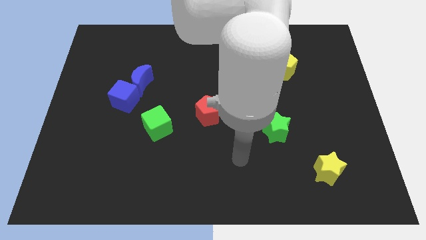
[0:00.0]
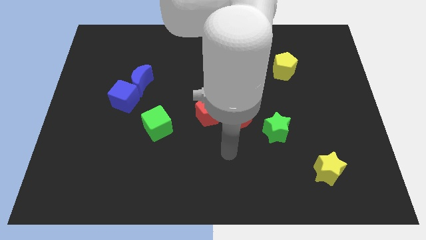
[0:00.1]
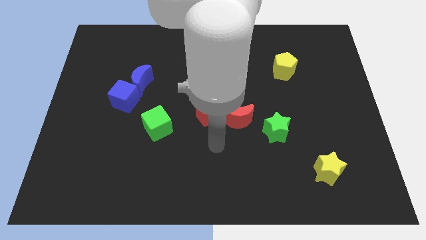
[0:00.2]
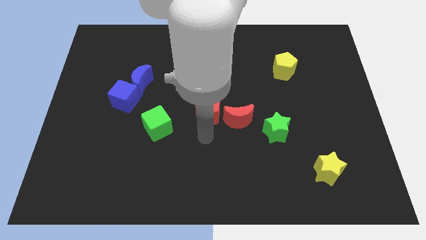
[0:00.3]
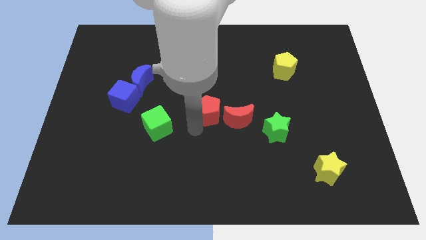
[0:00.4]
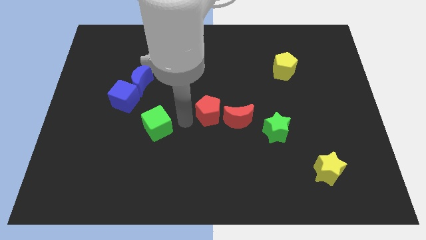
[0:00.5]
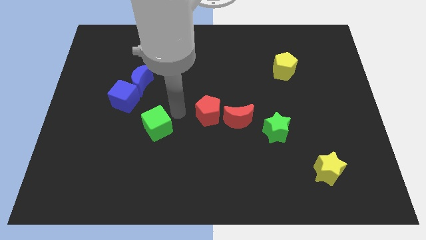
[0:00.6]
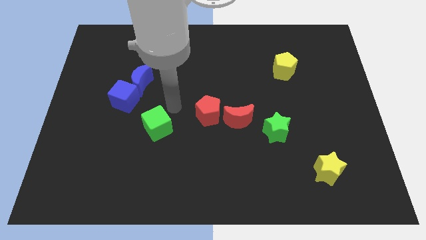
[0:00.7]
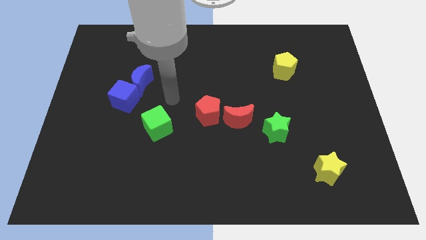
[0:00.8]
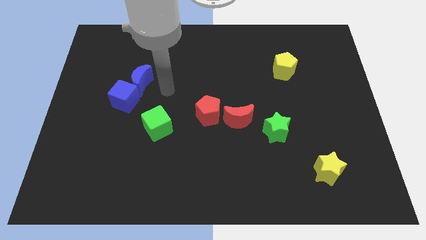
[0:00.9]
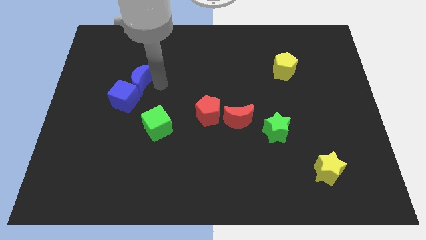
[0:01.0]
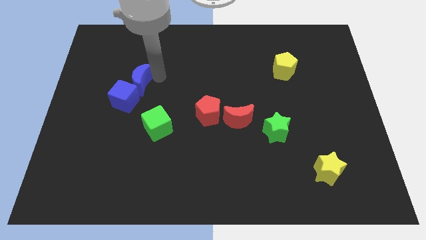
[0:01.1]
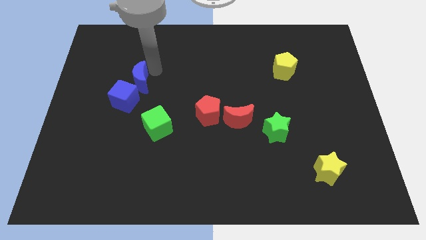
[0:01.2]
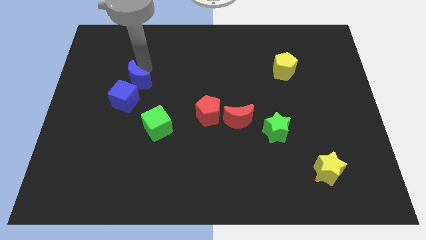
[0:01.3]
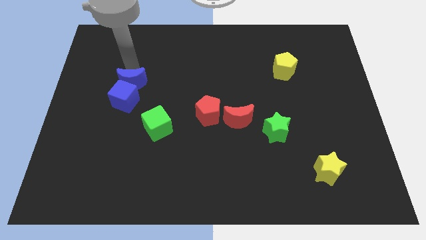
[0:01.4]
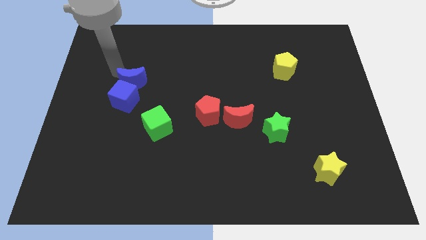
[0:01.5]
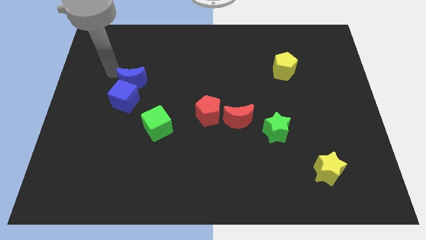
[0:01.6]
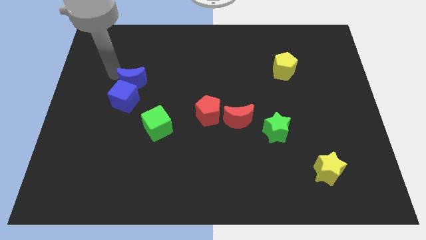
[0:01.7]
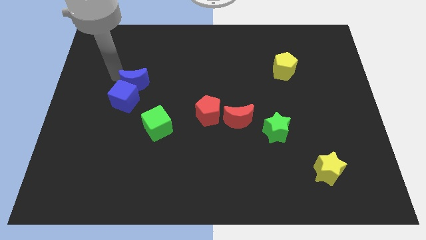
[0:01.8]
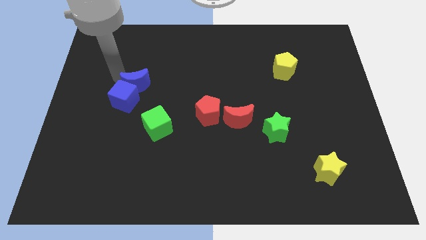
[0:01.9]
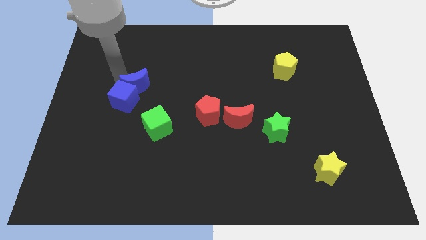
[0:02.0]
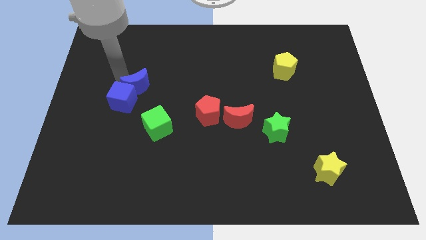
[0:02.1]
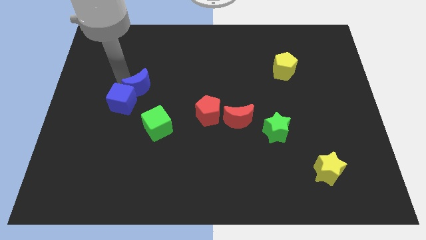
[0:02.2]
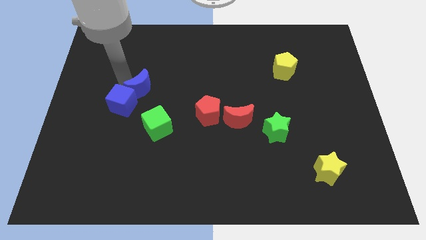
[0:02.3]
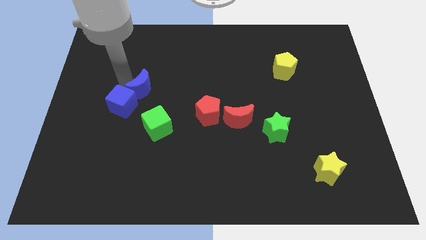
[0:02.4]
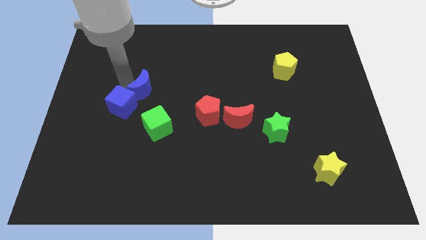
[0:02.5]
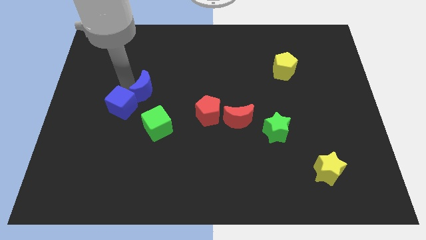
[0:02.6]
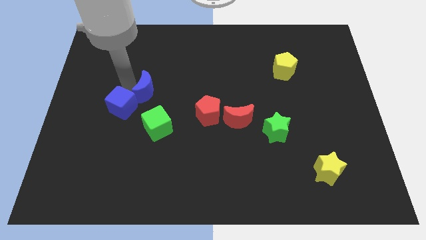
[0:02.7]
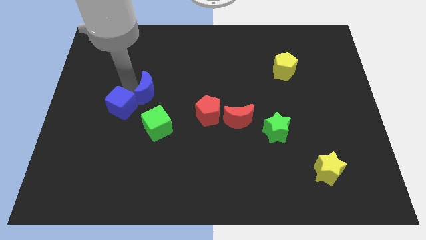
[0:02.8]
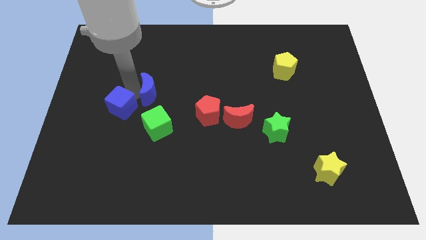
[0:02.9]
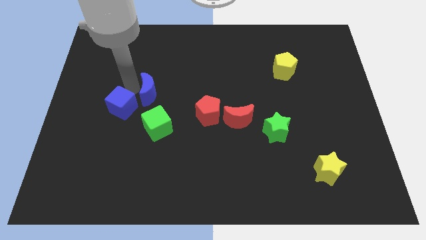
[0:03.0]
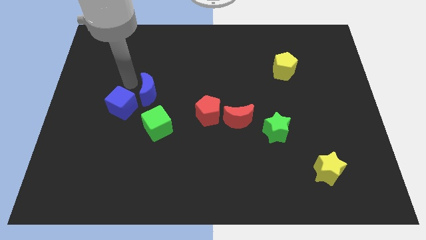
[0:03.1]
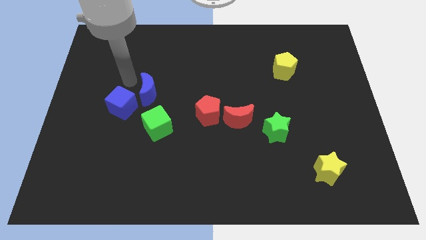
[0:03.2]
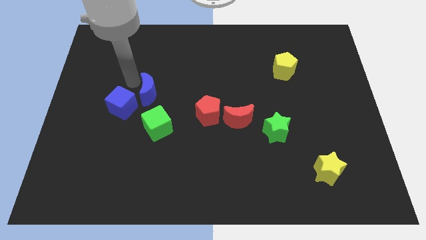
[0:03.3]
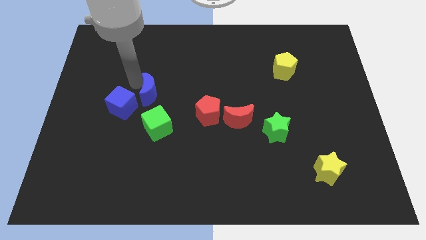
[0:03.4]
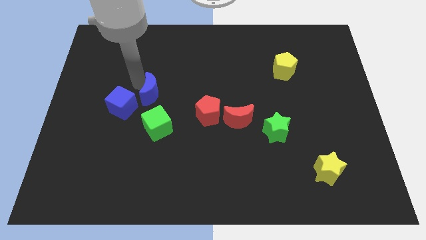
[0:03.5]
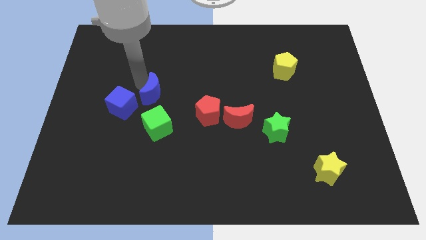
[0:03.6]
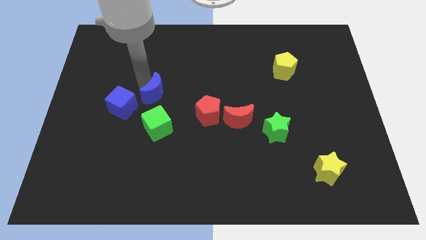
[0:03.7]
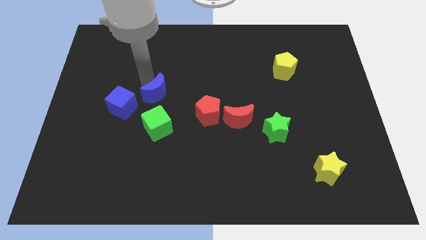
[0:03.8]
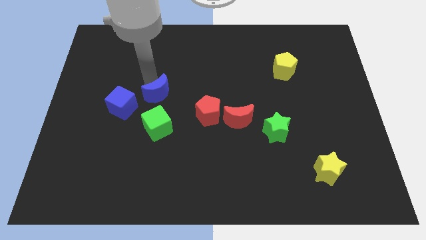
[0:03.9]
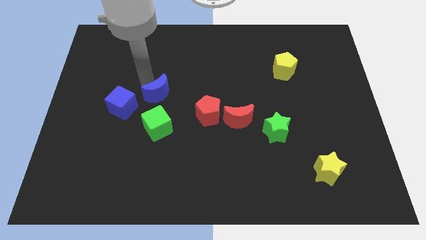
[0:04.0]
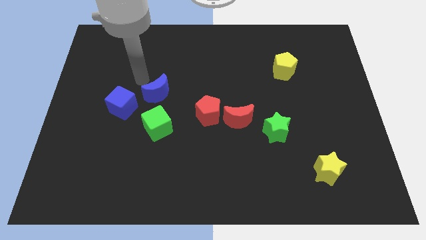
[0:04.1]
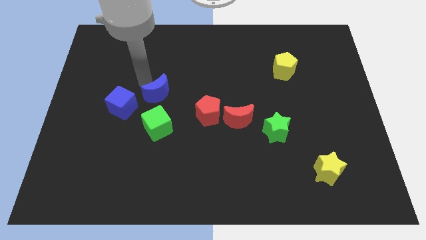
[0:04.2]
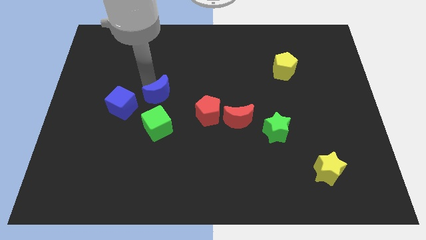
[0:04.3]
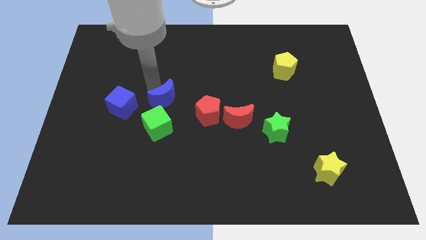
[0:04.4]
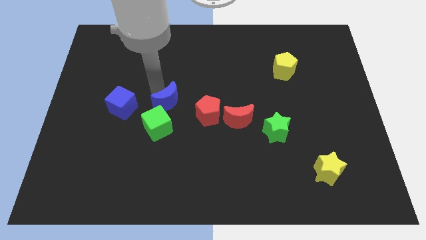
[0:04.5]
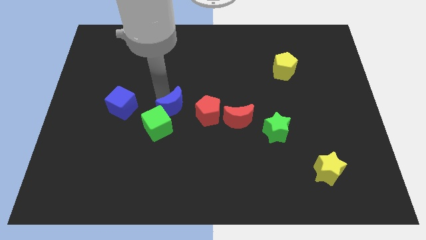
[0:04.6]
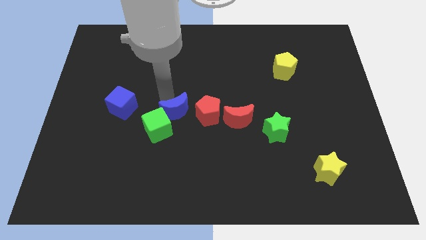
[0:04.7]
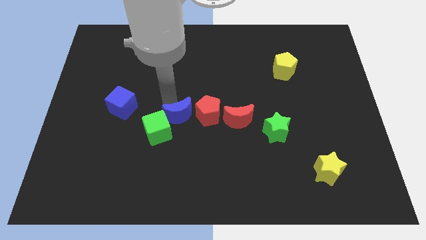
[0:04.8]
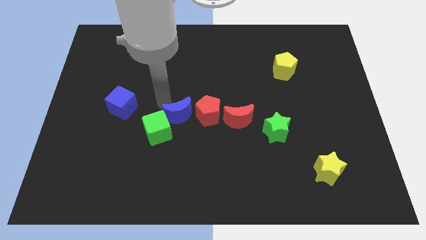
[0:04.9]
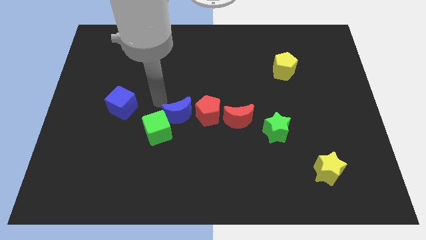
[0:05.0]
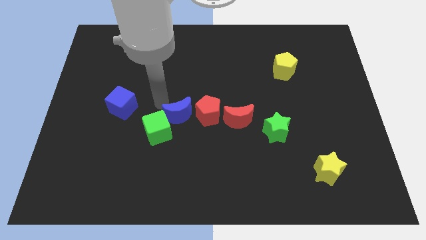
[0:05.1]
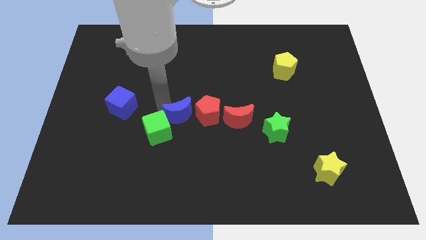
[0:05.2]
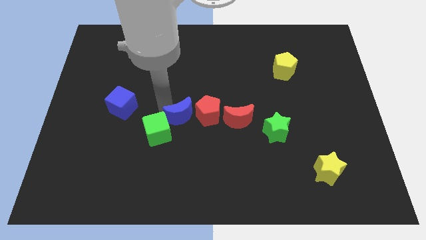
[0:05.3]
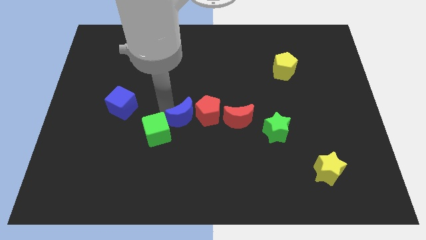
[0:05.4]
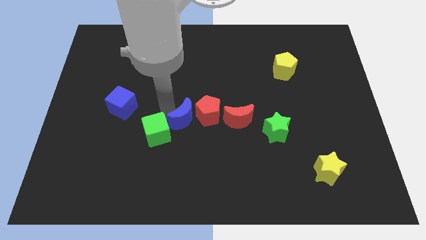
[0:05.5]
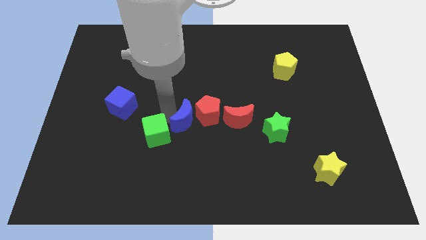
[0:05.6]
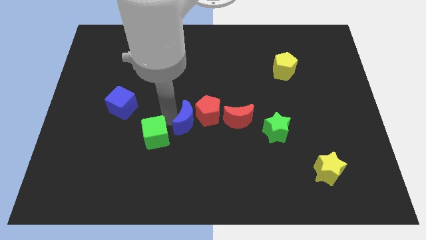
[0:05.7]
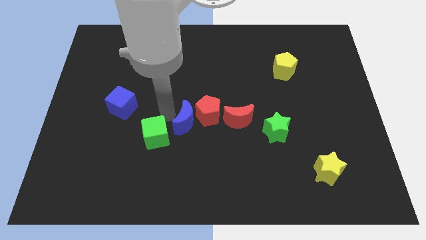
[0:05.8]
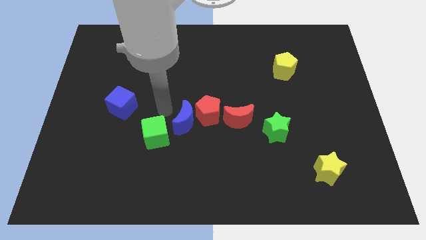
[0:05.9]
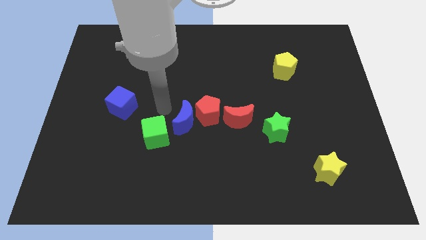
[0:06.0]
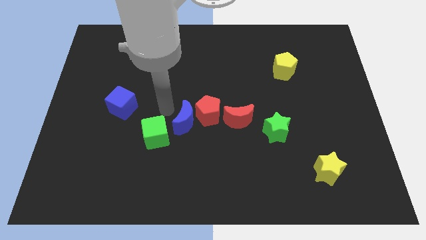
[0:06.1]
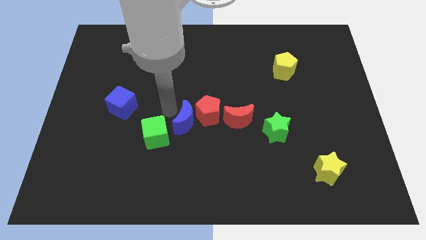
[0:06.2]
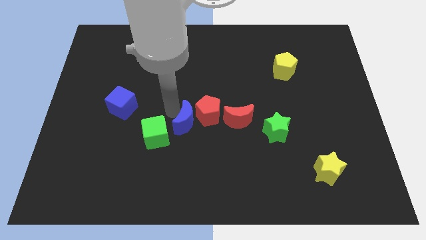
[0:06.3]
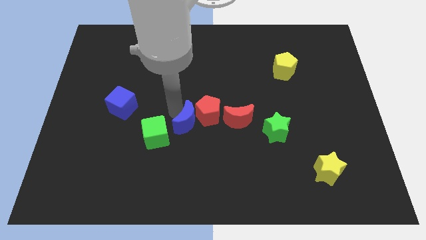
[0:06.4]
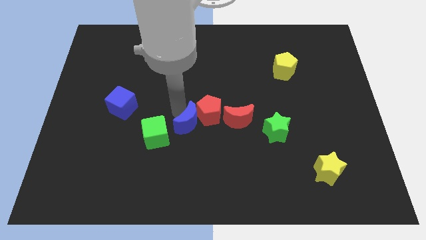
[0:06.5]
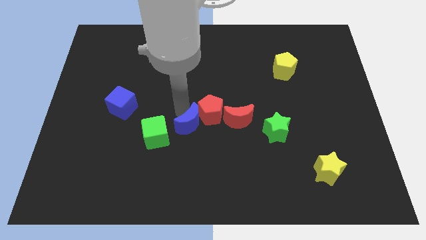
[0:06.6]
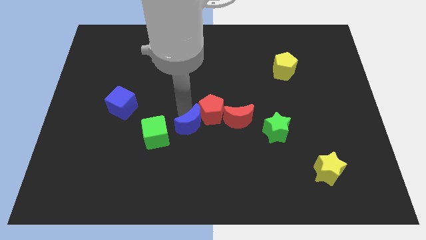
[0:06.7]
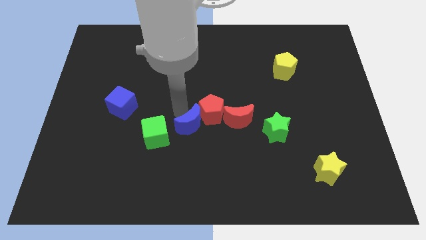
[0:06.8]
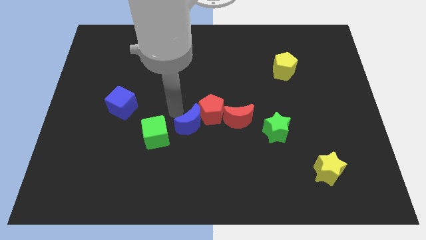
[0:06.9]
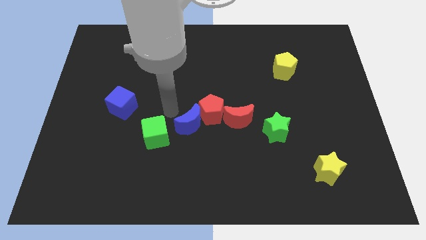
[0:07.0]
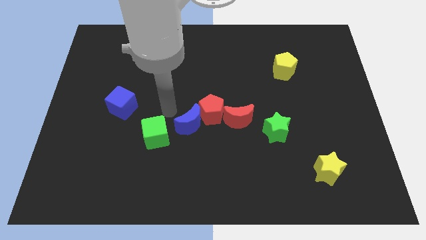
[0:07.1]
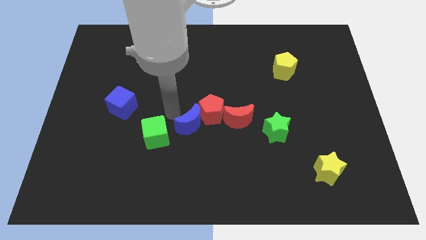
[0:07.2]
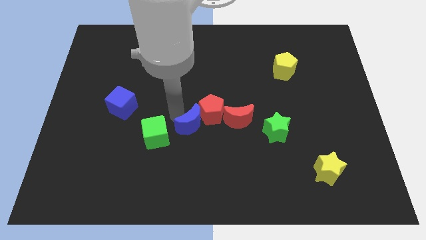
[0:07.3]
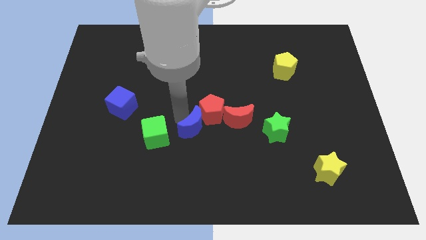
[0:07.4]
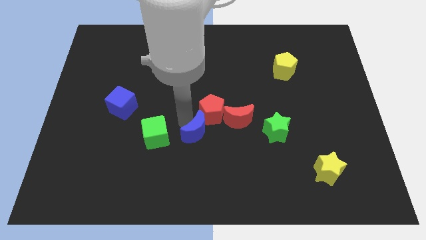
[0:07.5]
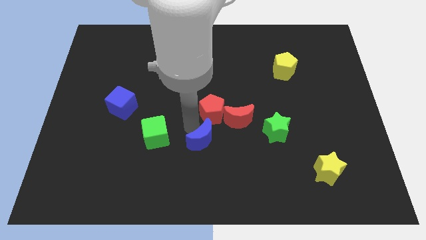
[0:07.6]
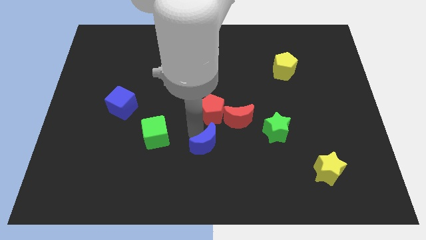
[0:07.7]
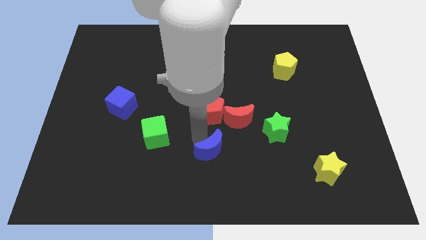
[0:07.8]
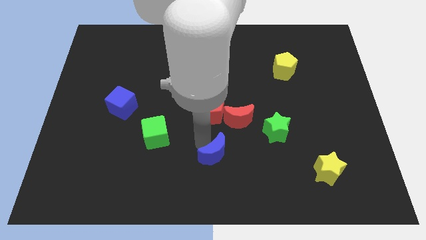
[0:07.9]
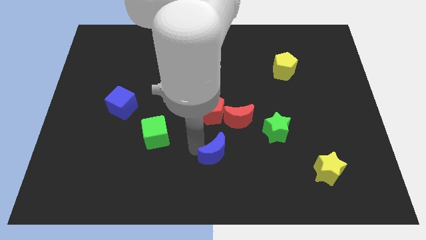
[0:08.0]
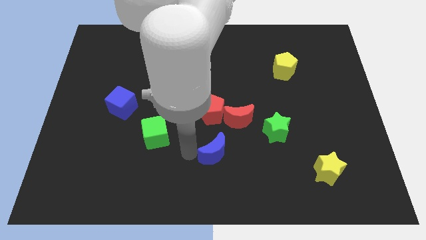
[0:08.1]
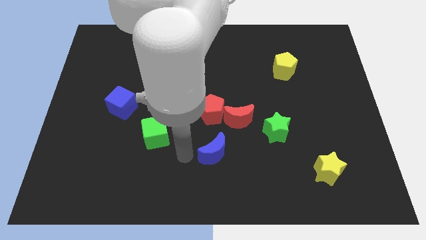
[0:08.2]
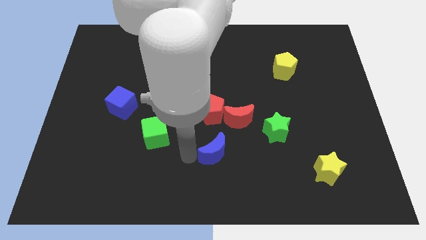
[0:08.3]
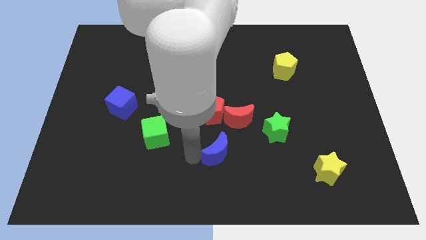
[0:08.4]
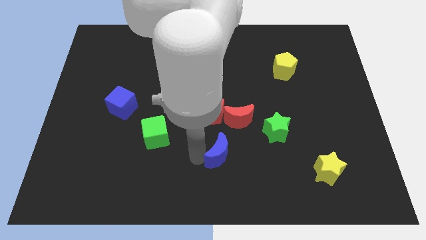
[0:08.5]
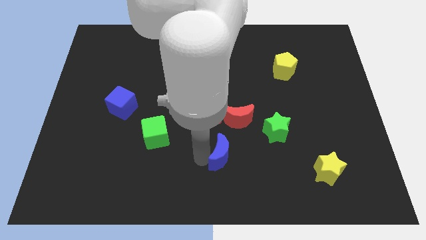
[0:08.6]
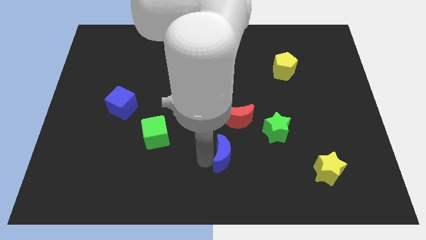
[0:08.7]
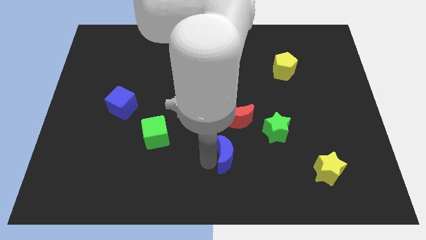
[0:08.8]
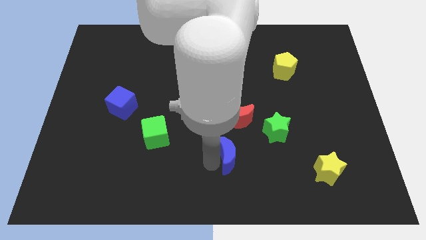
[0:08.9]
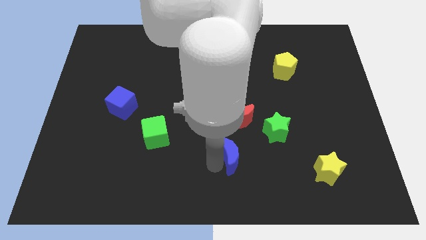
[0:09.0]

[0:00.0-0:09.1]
put the blue moon to the bottom left side of the green star
